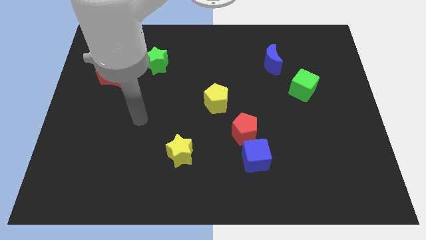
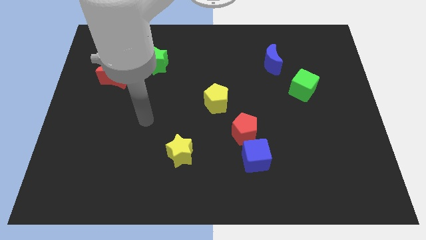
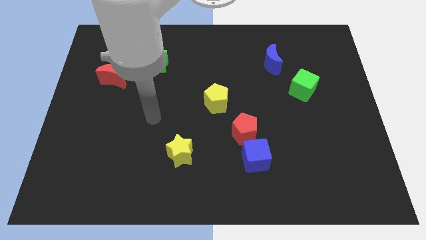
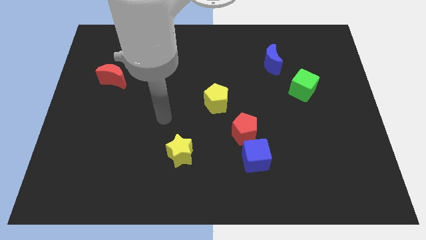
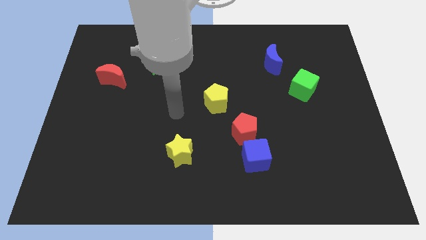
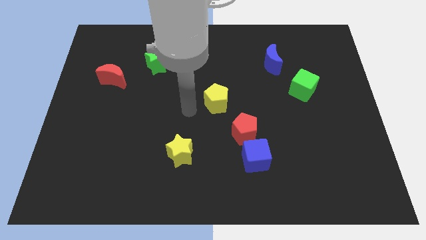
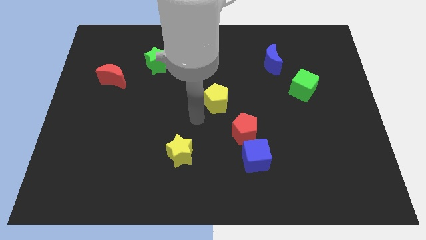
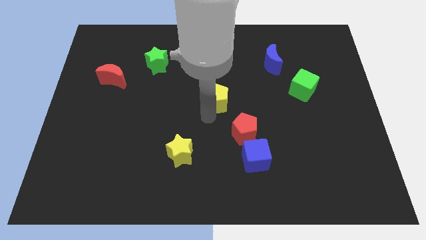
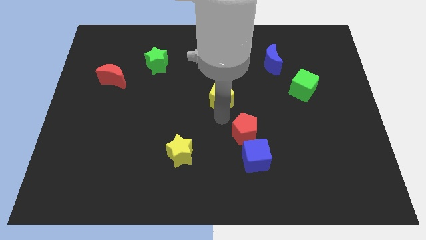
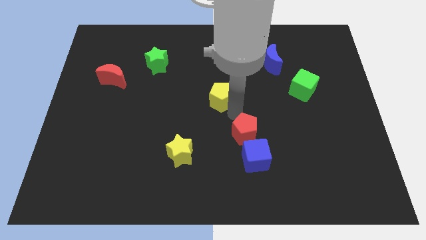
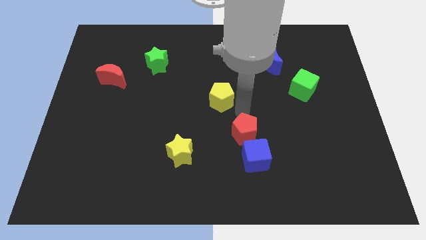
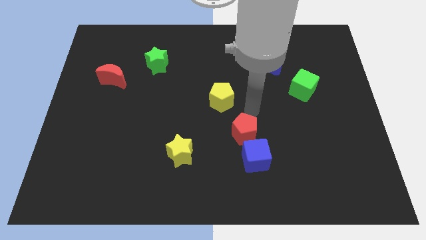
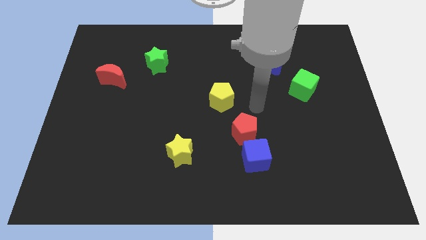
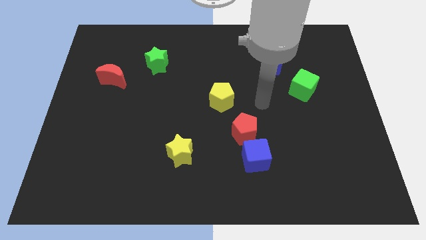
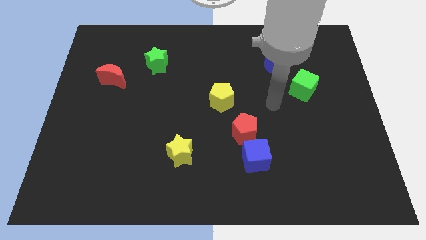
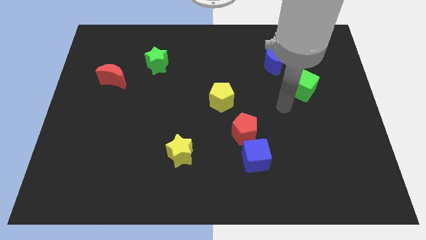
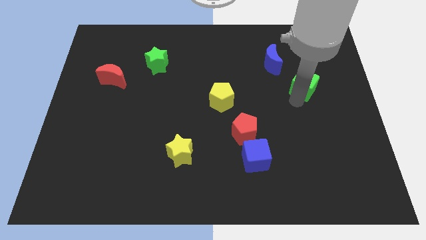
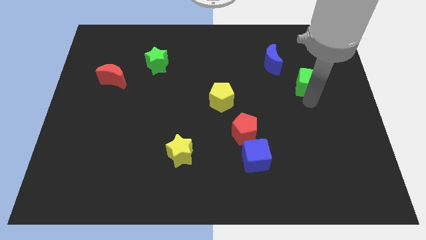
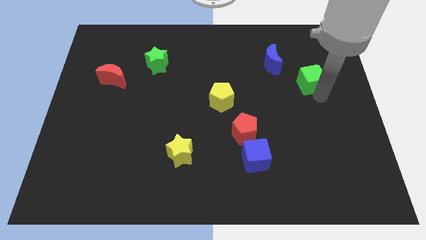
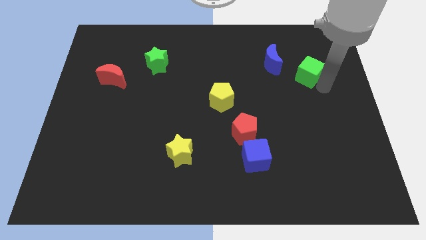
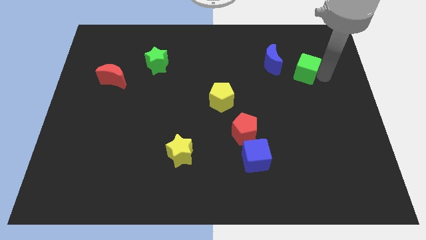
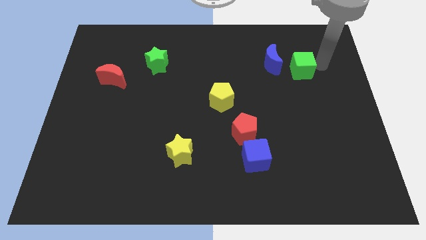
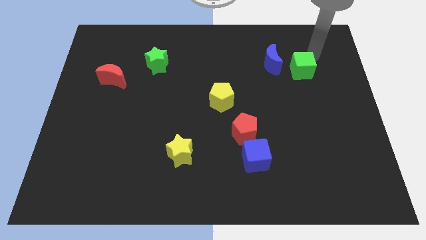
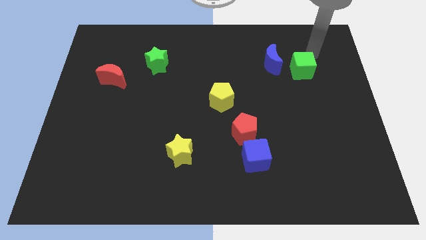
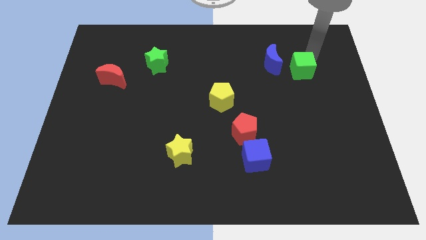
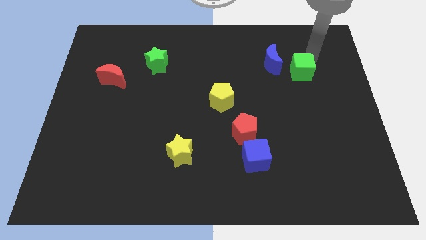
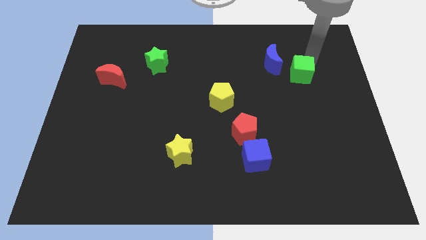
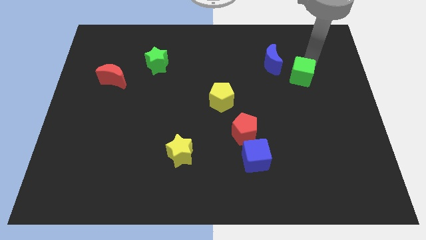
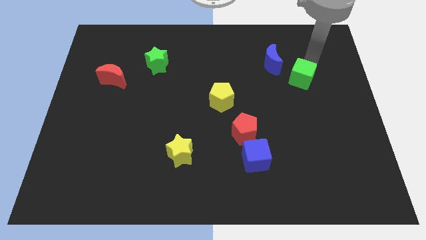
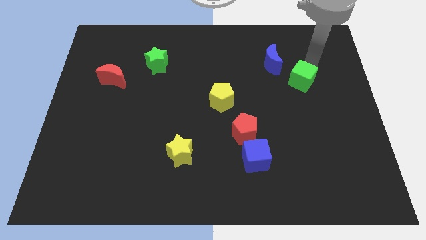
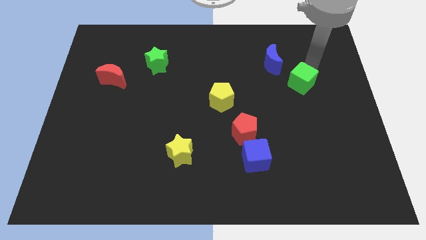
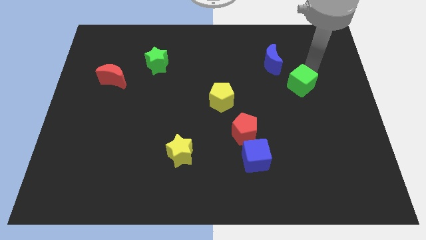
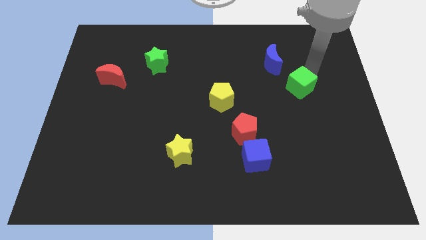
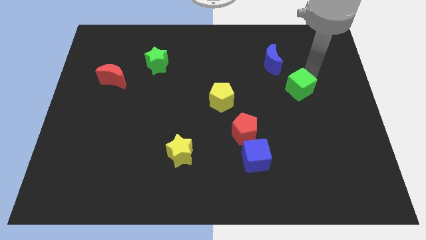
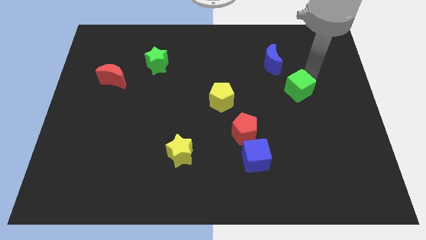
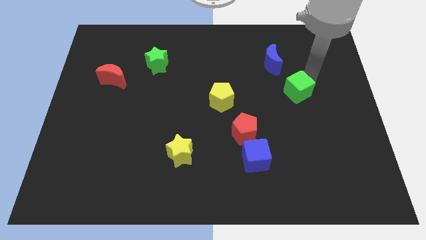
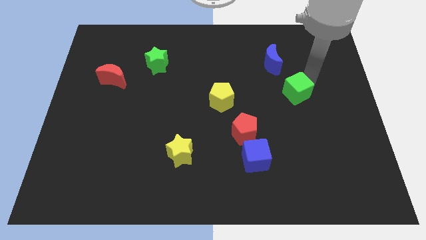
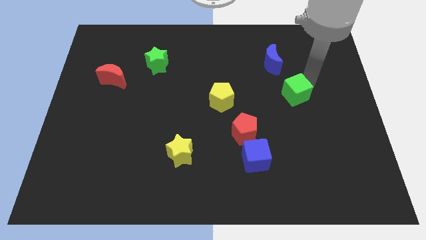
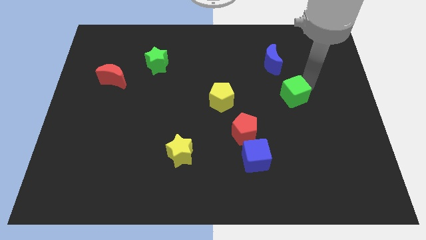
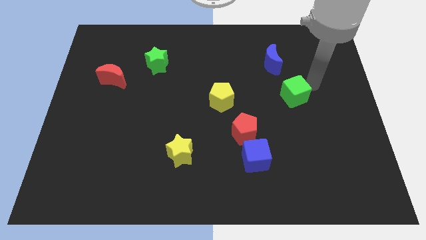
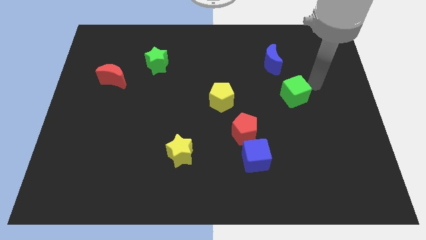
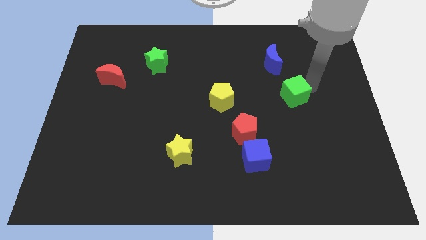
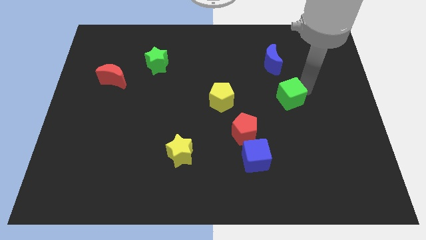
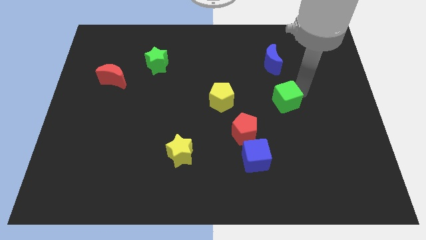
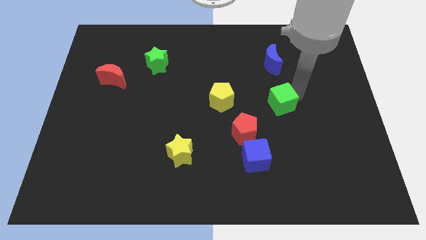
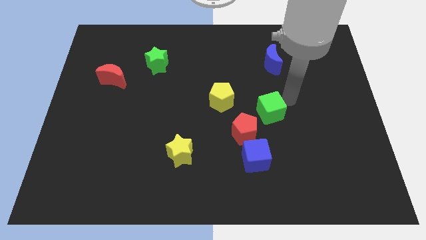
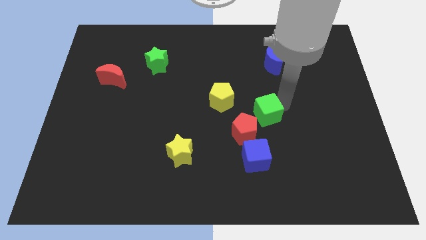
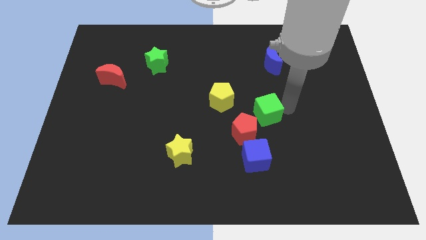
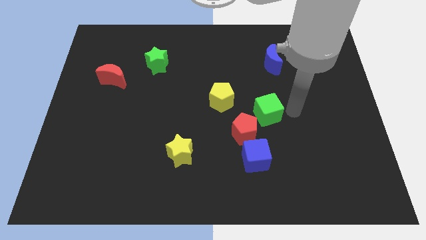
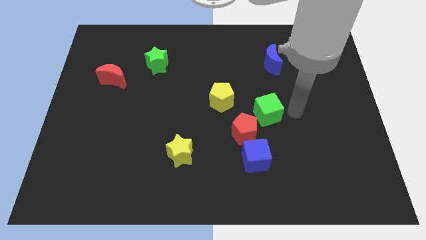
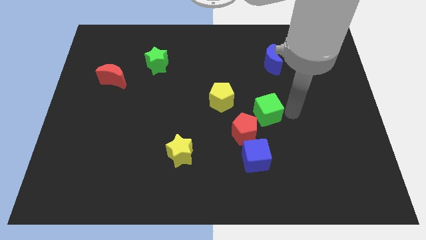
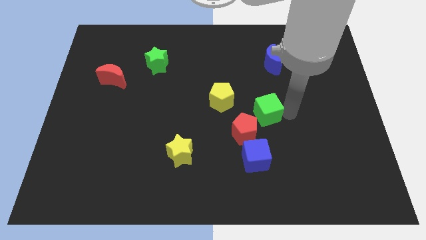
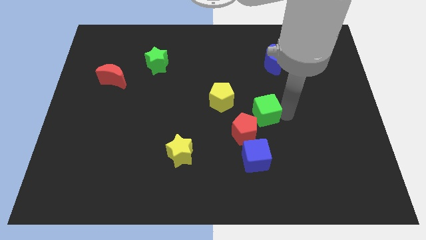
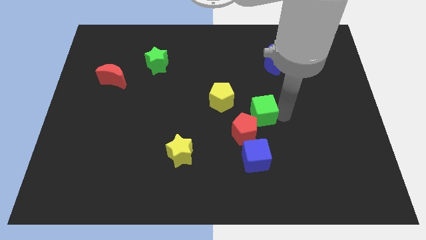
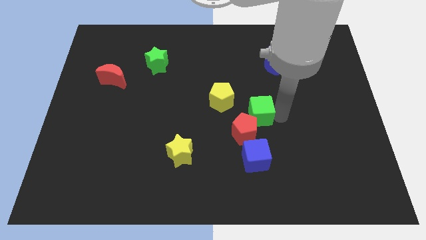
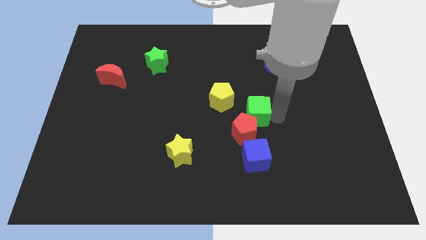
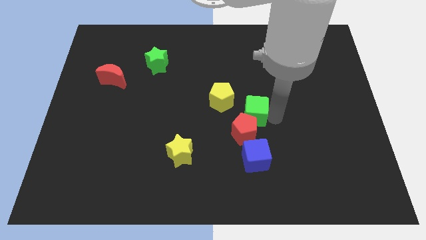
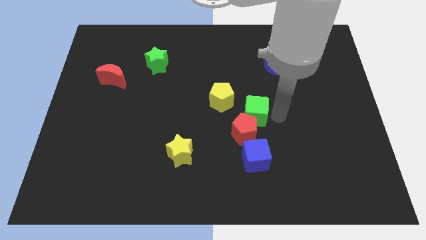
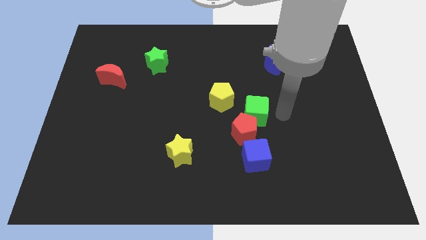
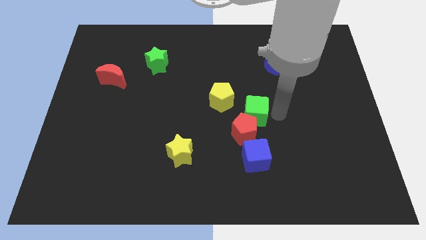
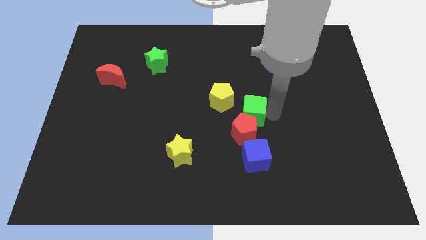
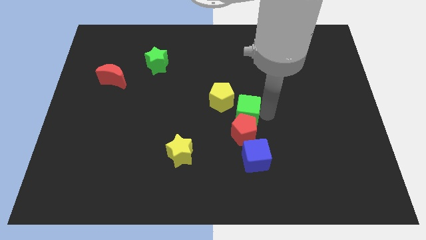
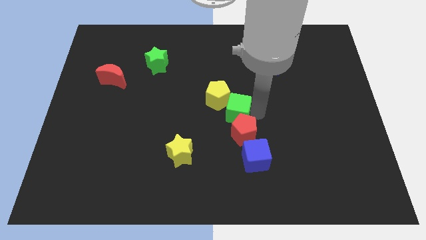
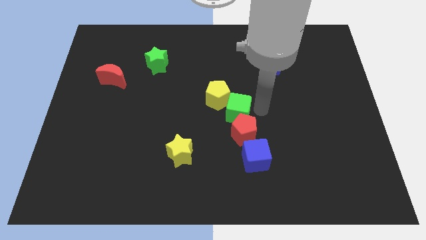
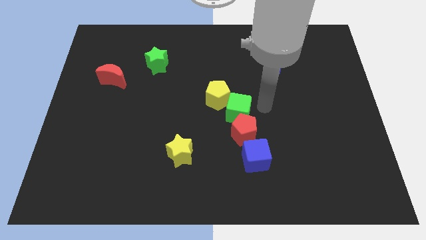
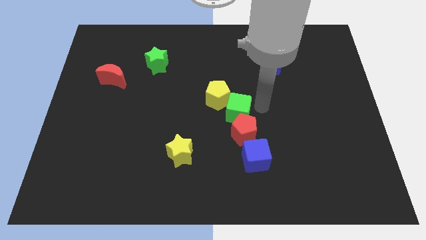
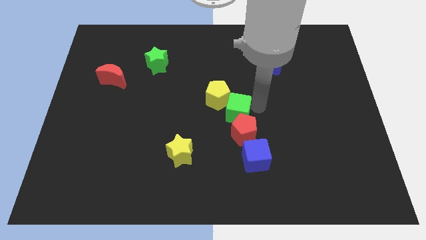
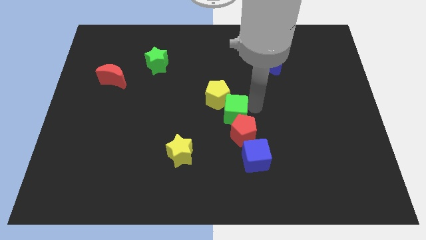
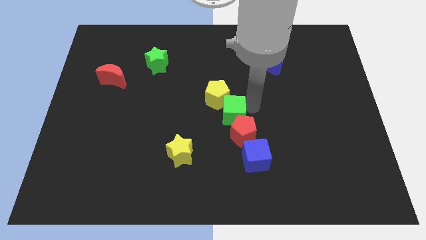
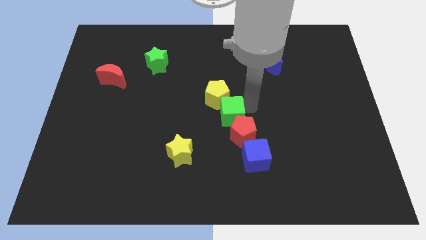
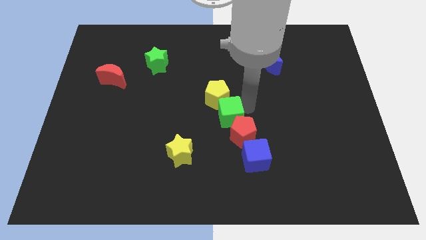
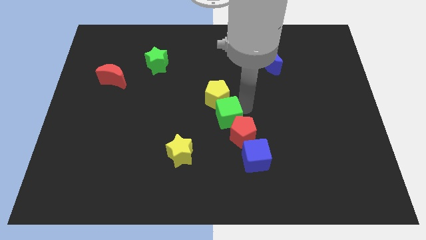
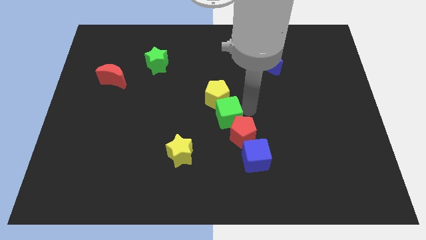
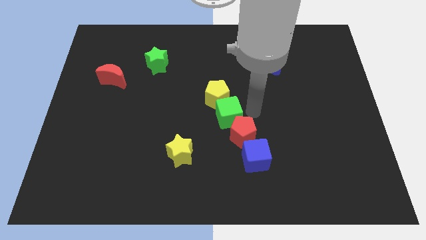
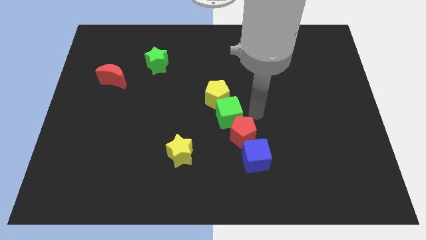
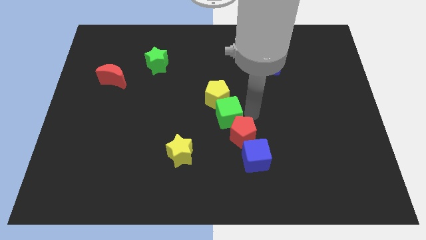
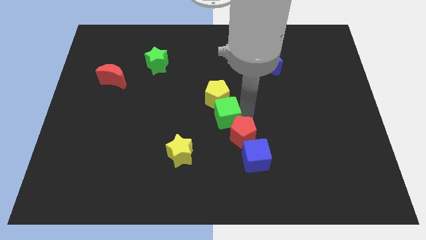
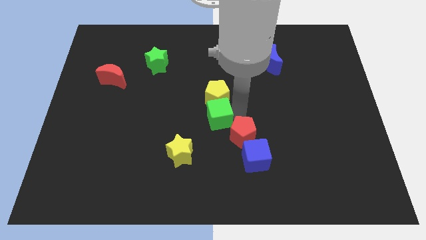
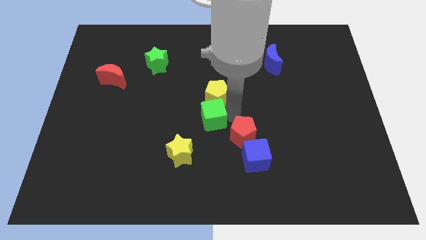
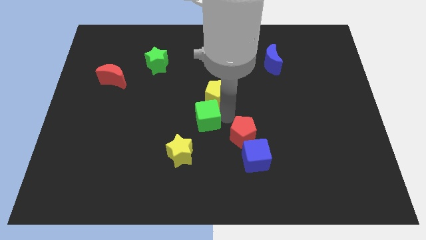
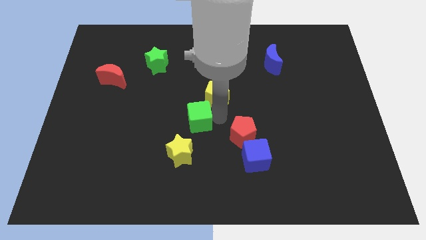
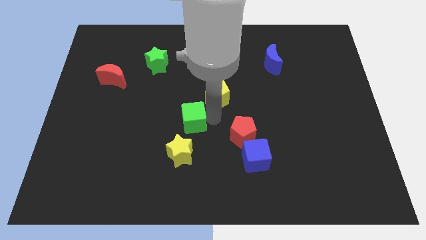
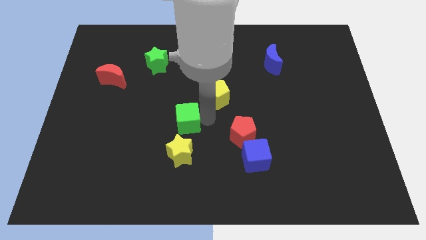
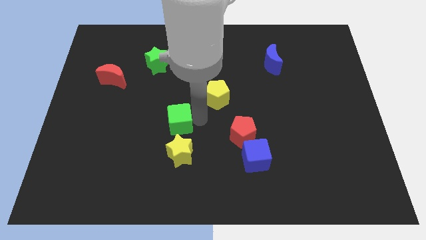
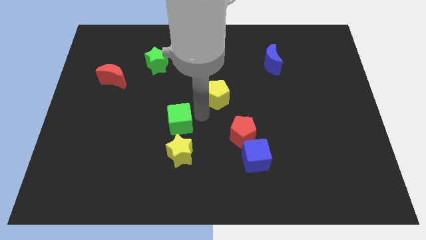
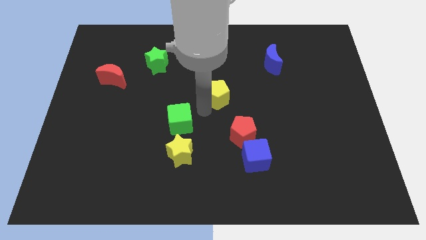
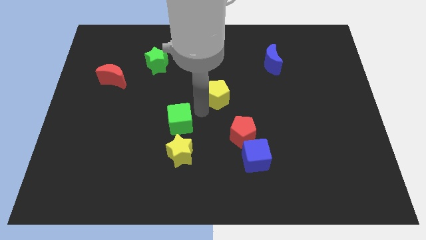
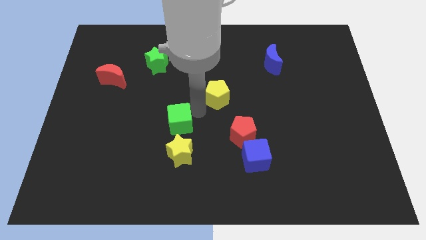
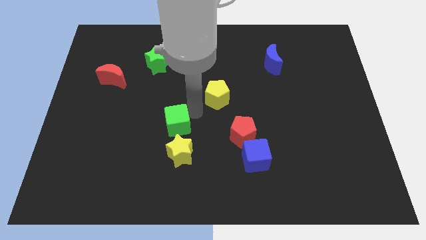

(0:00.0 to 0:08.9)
put the green cube diagonally up and to the left of the yellow star
